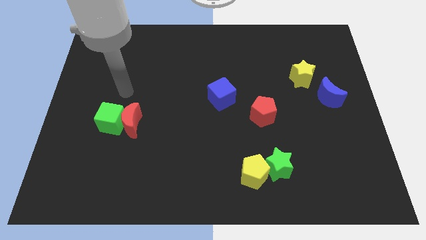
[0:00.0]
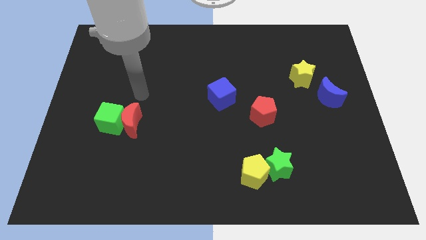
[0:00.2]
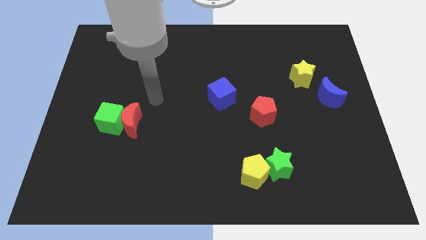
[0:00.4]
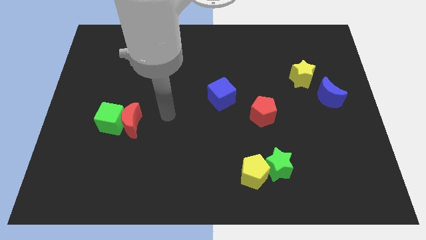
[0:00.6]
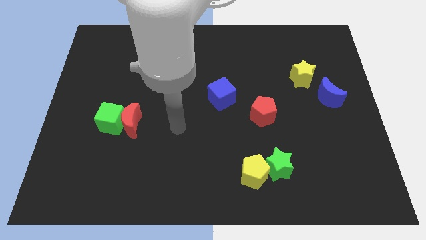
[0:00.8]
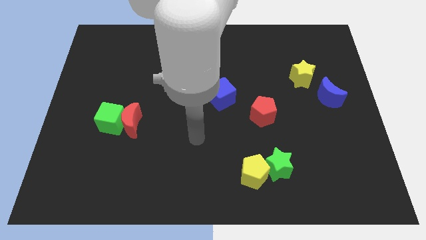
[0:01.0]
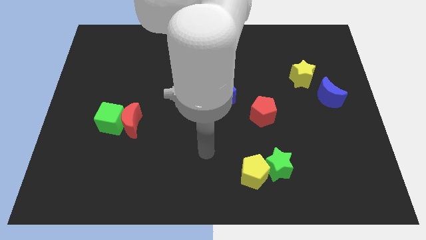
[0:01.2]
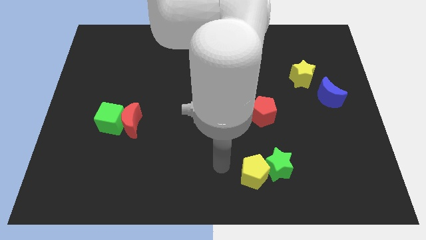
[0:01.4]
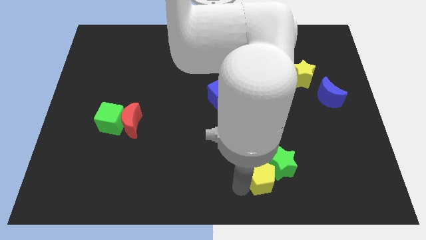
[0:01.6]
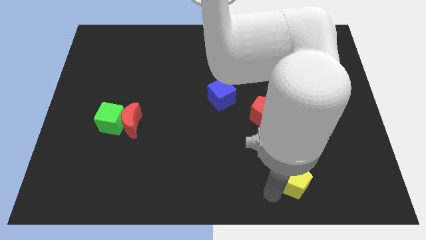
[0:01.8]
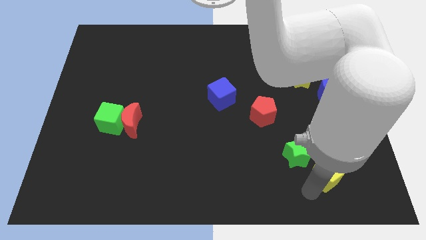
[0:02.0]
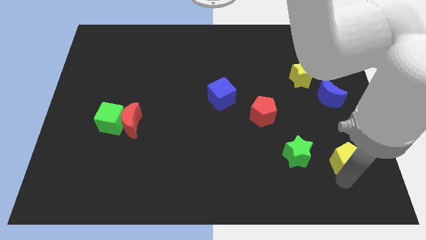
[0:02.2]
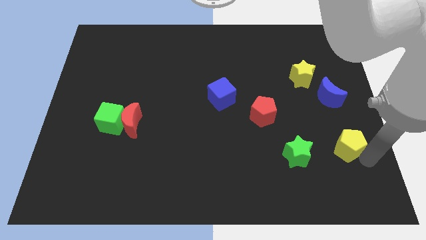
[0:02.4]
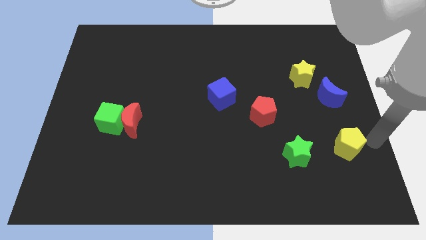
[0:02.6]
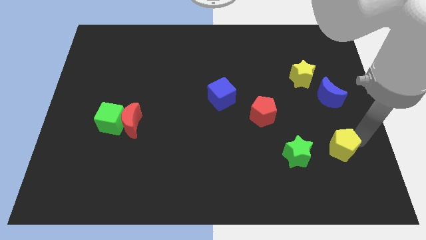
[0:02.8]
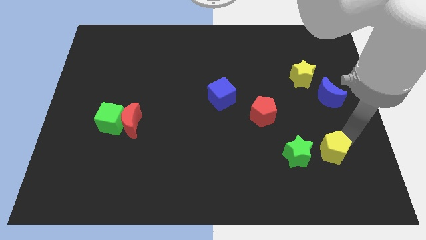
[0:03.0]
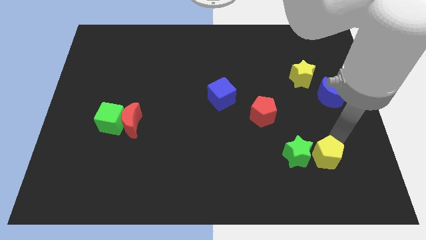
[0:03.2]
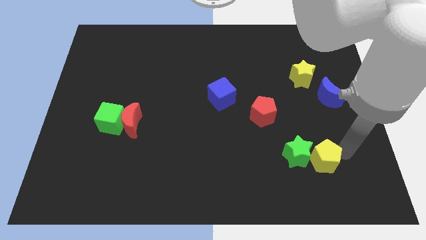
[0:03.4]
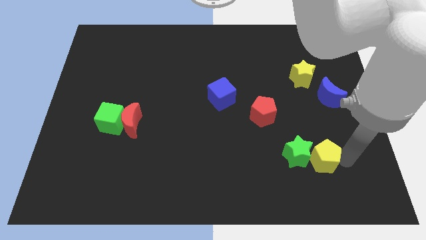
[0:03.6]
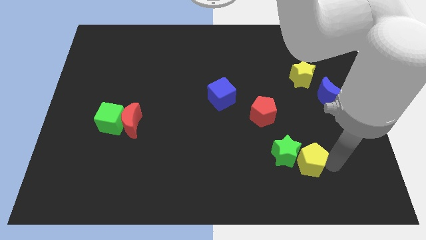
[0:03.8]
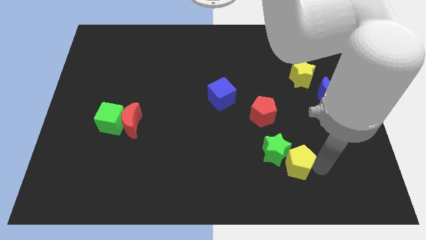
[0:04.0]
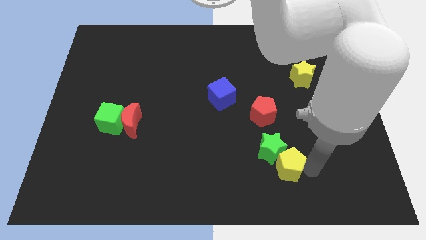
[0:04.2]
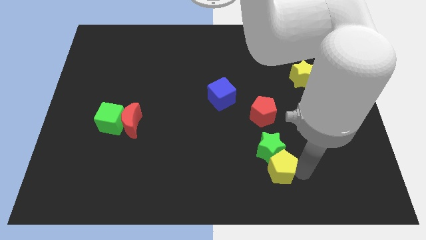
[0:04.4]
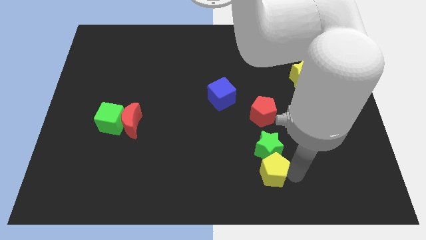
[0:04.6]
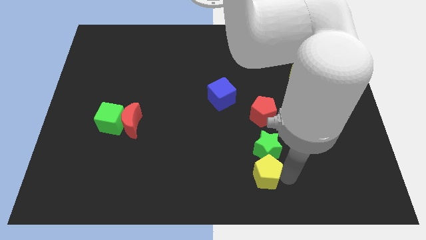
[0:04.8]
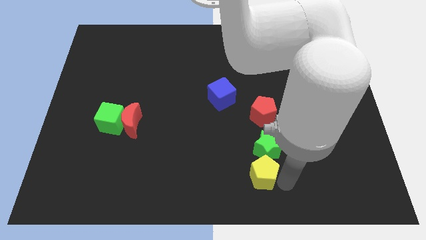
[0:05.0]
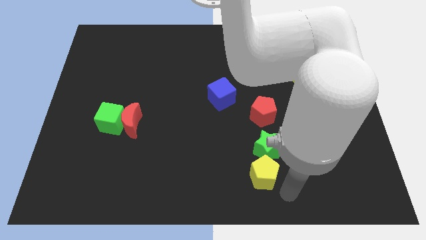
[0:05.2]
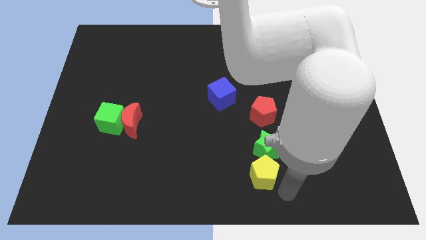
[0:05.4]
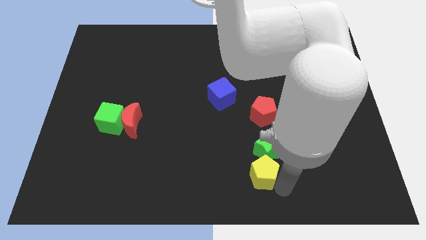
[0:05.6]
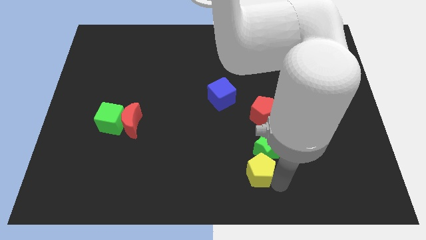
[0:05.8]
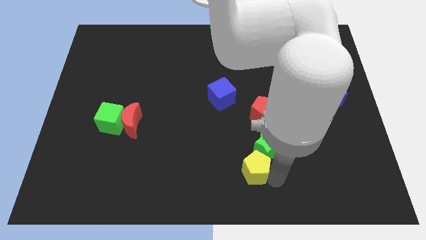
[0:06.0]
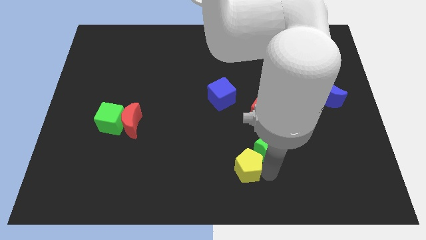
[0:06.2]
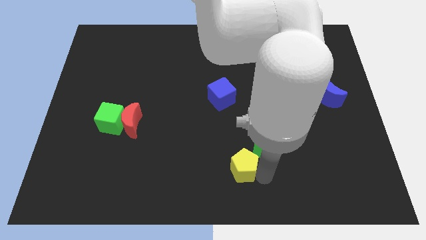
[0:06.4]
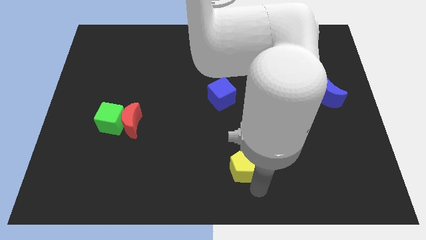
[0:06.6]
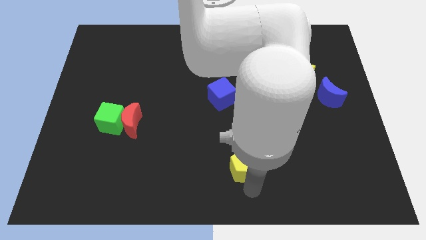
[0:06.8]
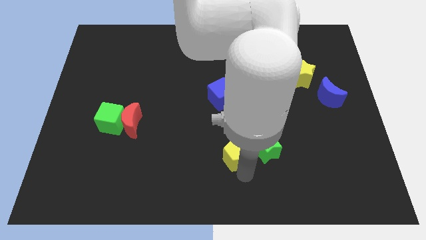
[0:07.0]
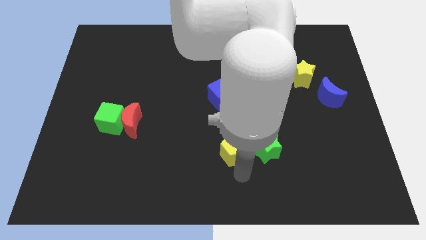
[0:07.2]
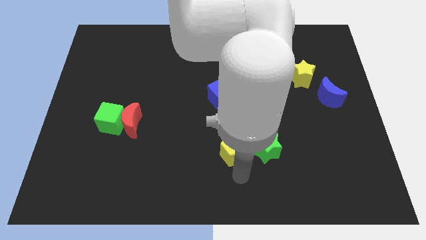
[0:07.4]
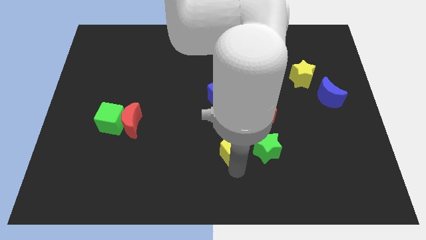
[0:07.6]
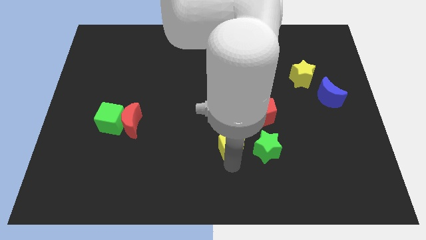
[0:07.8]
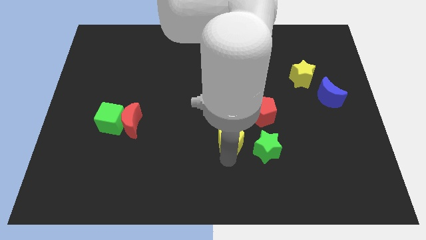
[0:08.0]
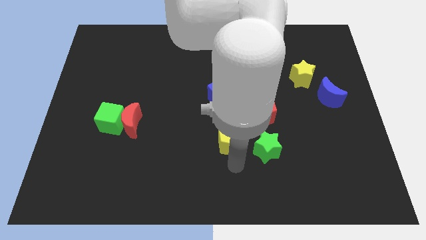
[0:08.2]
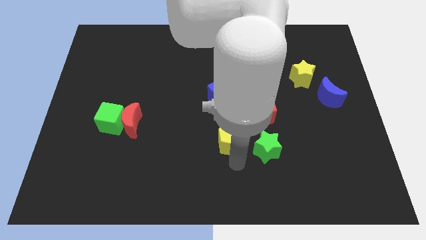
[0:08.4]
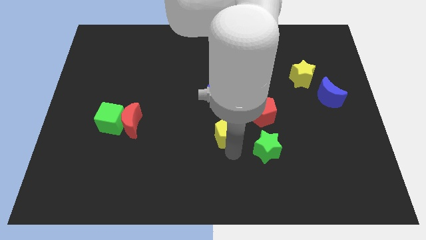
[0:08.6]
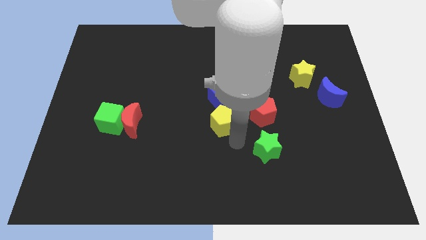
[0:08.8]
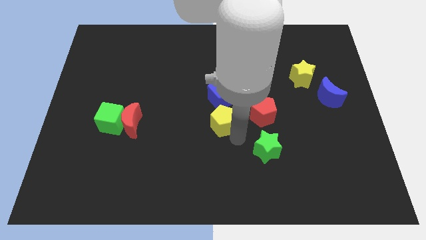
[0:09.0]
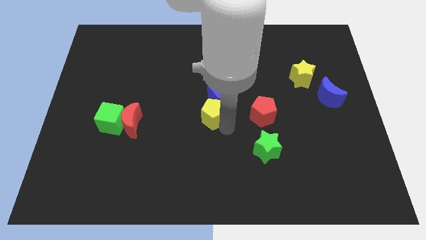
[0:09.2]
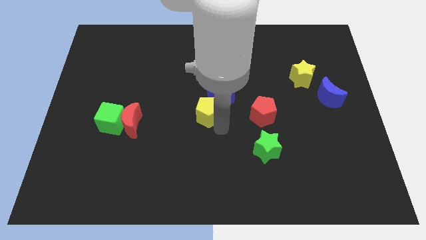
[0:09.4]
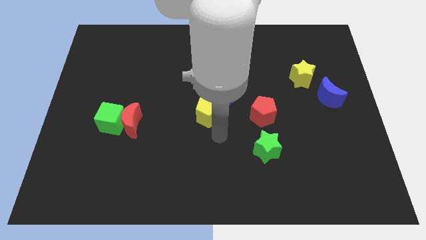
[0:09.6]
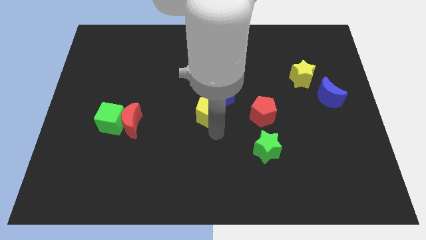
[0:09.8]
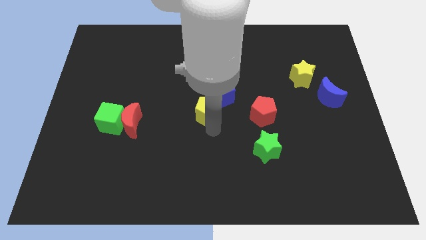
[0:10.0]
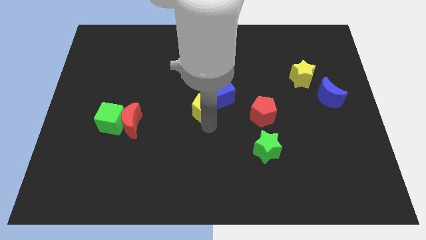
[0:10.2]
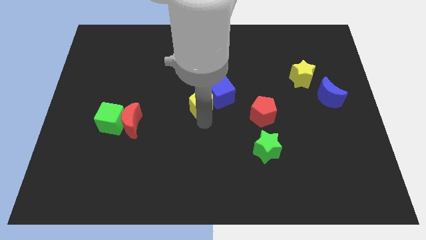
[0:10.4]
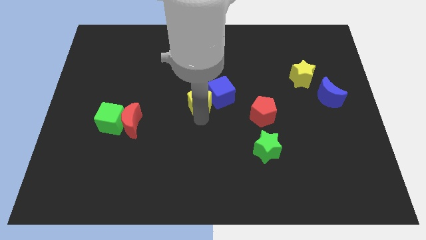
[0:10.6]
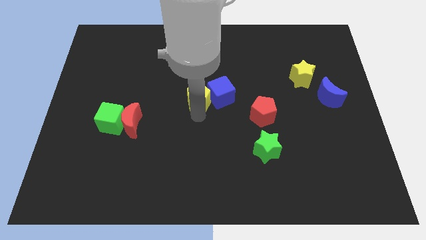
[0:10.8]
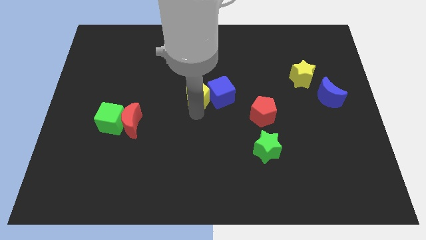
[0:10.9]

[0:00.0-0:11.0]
put the yellow pentagon diagonally up and to the left of the blue cube

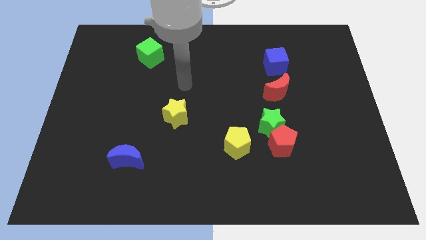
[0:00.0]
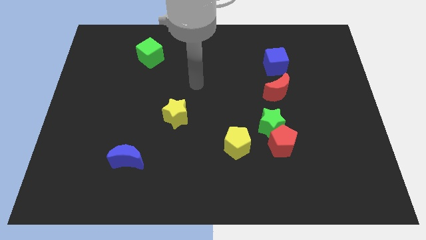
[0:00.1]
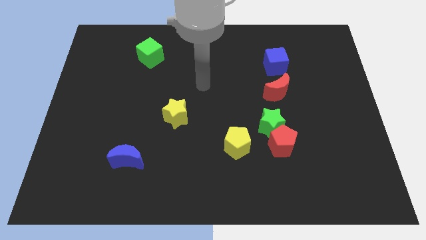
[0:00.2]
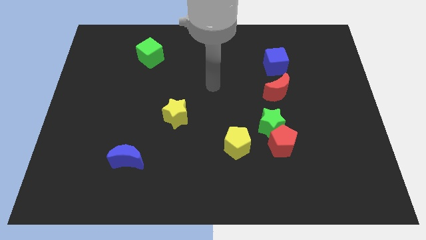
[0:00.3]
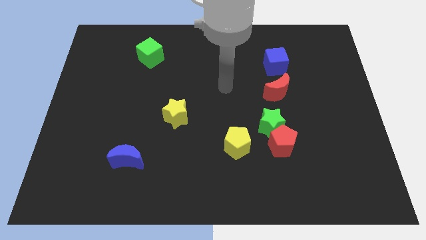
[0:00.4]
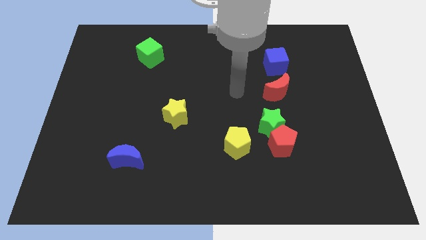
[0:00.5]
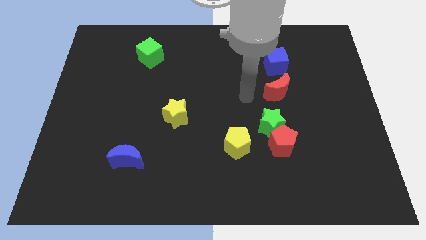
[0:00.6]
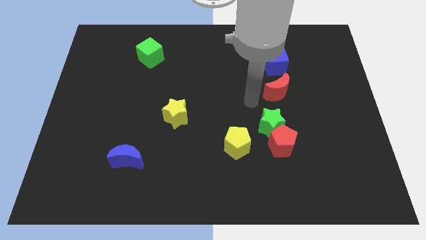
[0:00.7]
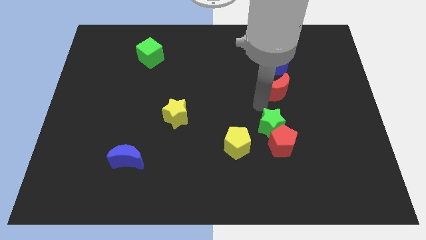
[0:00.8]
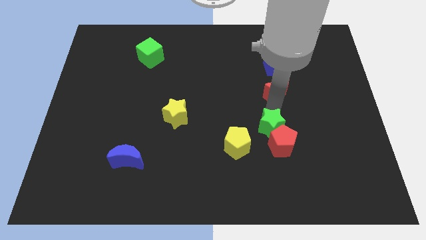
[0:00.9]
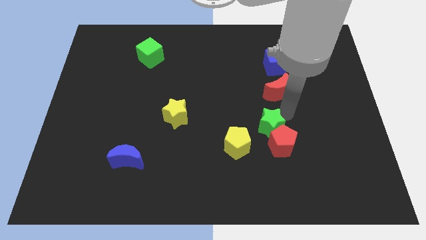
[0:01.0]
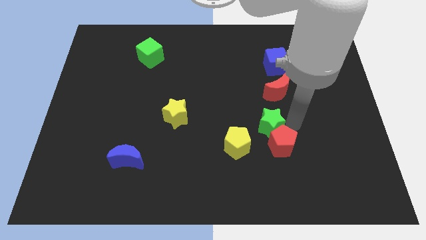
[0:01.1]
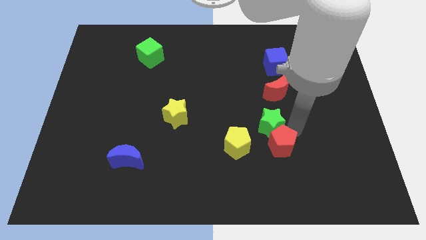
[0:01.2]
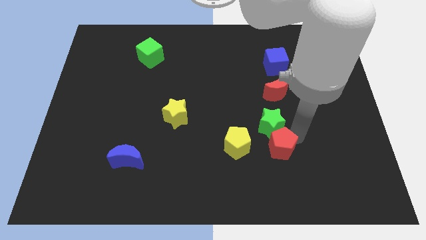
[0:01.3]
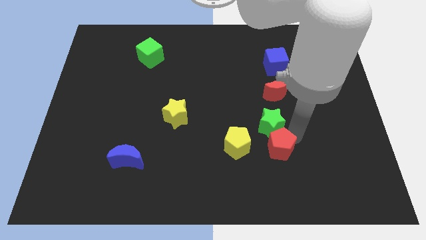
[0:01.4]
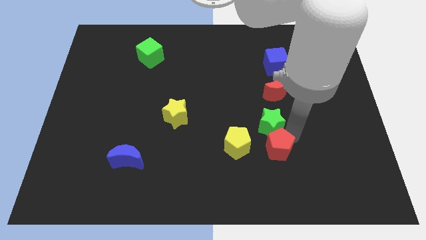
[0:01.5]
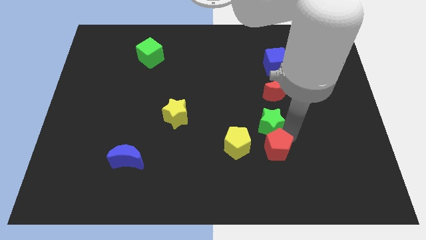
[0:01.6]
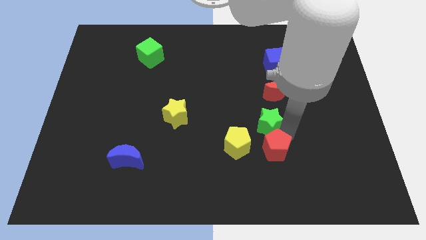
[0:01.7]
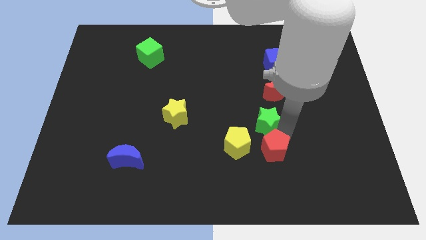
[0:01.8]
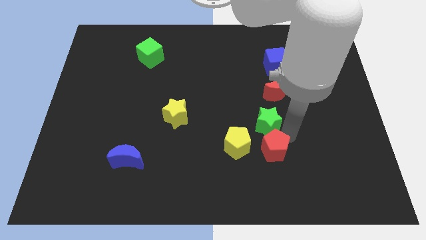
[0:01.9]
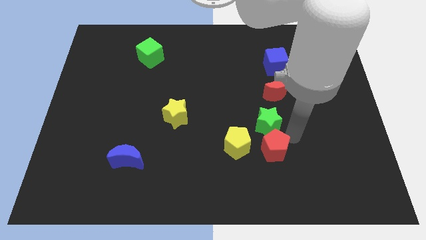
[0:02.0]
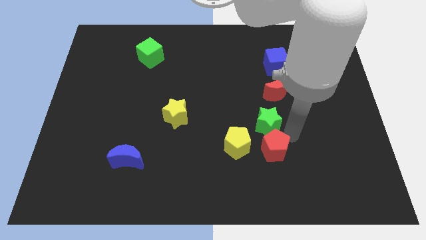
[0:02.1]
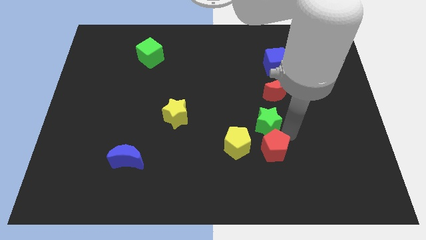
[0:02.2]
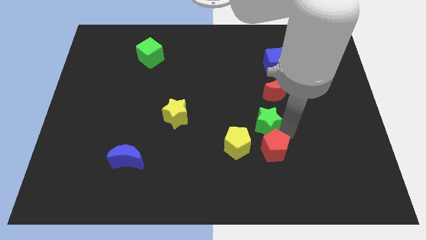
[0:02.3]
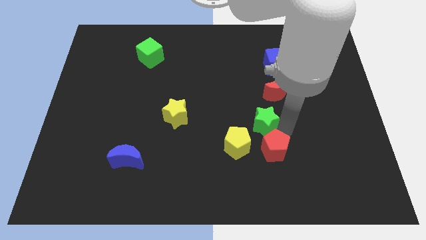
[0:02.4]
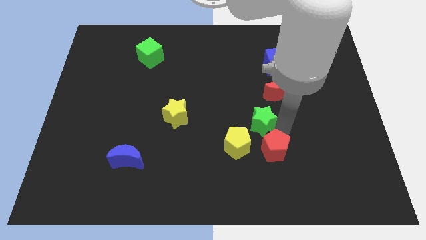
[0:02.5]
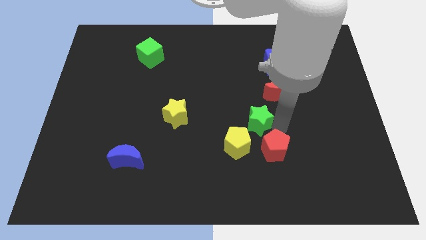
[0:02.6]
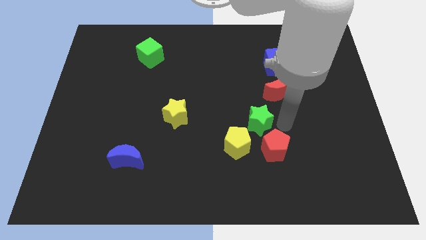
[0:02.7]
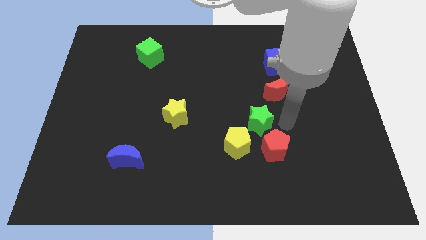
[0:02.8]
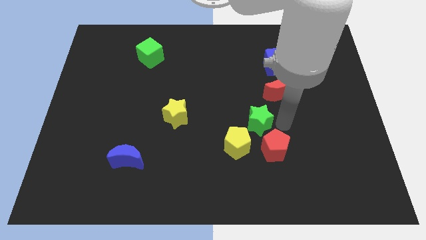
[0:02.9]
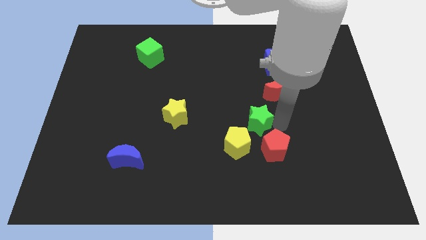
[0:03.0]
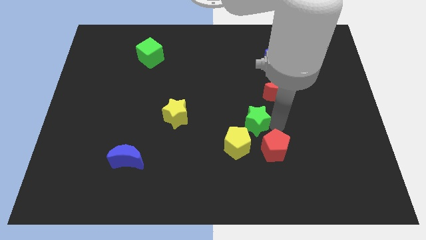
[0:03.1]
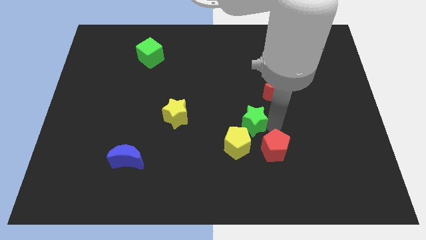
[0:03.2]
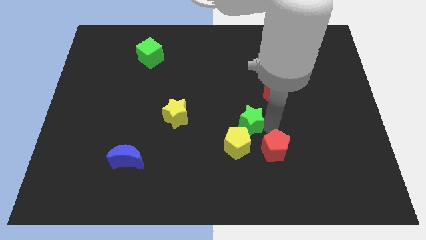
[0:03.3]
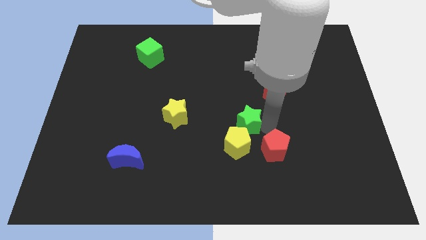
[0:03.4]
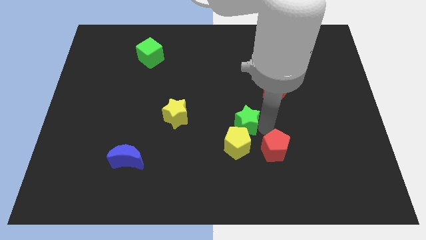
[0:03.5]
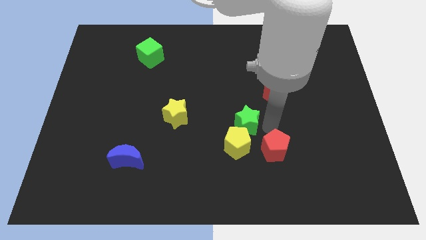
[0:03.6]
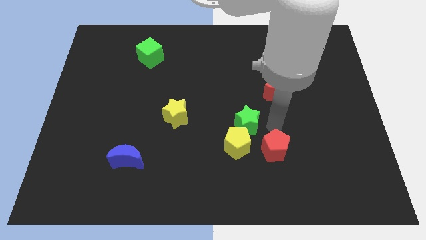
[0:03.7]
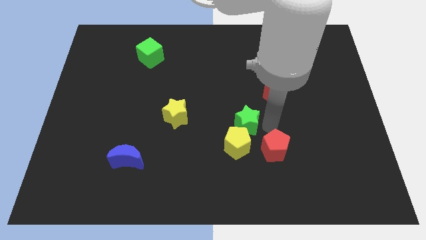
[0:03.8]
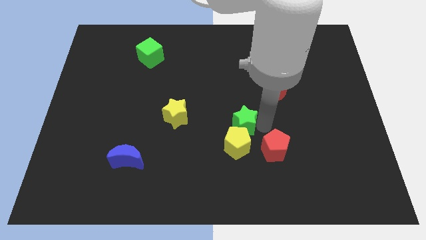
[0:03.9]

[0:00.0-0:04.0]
move the green star to the top left of the yellow pentagon
